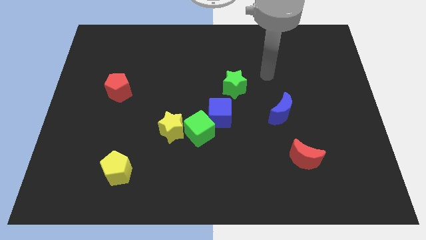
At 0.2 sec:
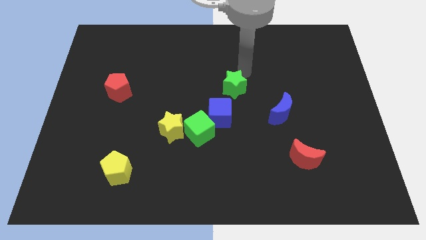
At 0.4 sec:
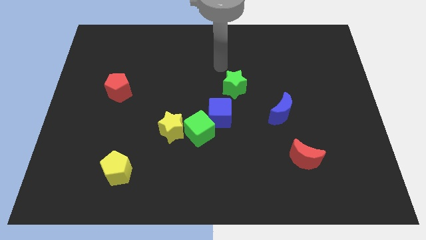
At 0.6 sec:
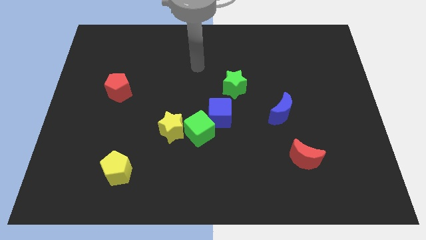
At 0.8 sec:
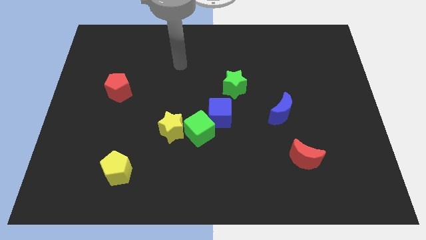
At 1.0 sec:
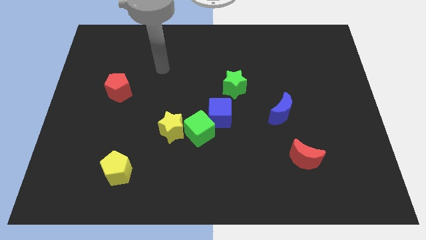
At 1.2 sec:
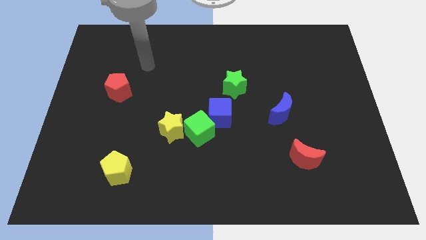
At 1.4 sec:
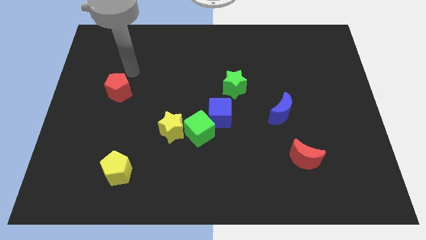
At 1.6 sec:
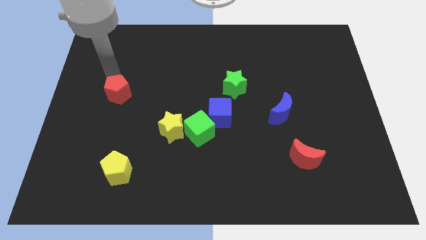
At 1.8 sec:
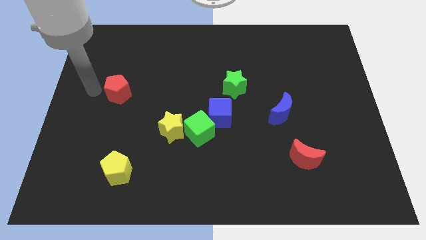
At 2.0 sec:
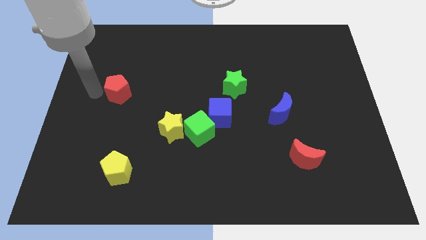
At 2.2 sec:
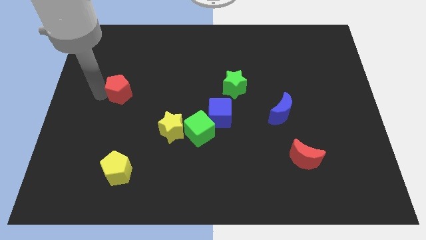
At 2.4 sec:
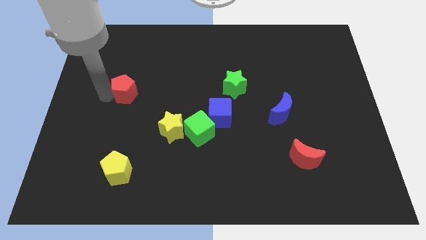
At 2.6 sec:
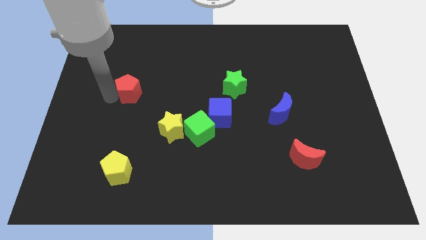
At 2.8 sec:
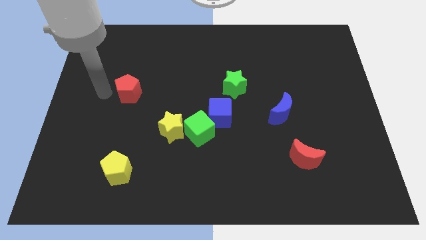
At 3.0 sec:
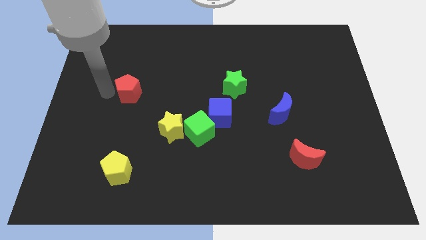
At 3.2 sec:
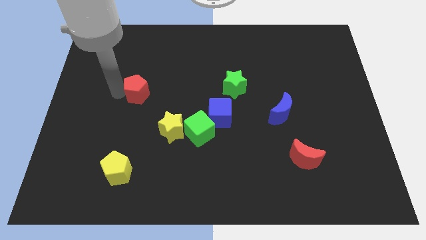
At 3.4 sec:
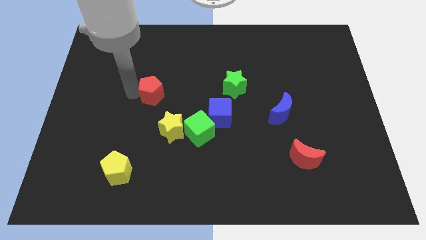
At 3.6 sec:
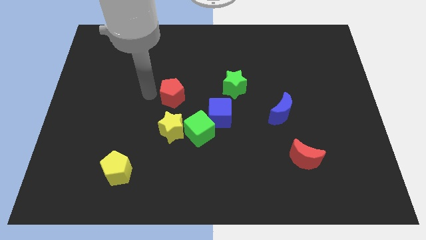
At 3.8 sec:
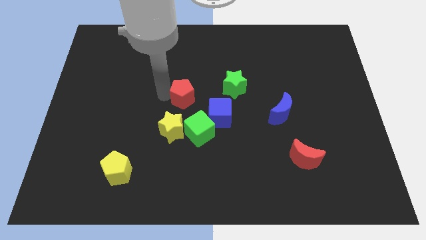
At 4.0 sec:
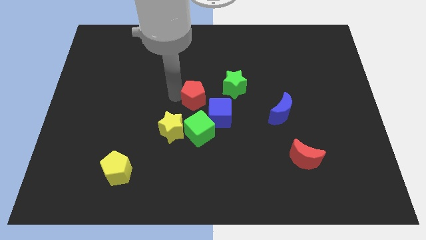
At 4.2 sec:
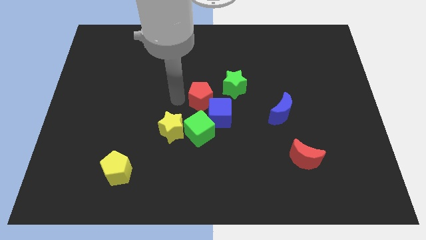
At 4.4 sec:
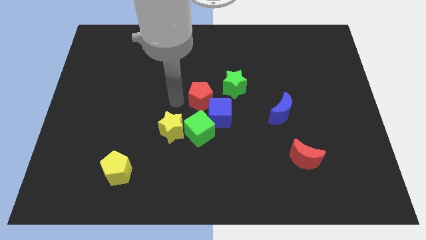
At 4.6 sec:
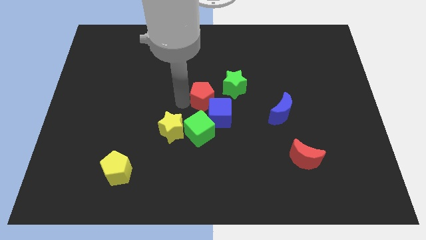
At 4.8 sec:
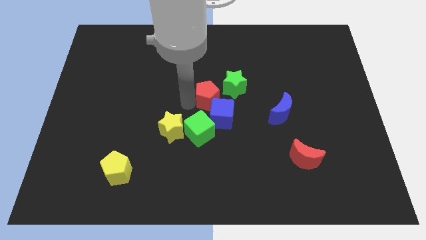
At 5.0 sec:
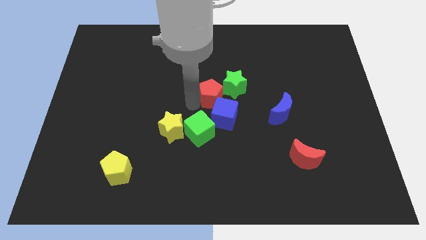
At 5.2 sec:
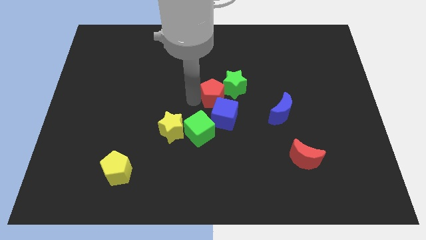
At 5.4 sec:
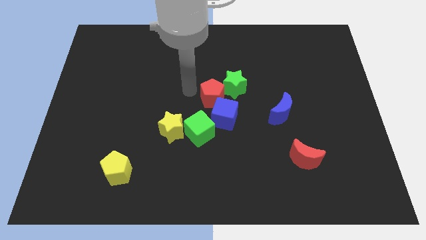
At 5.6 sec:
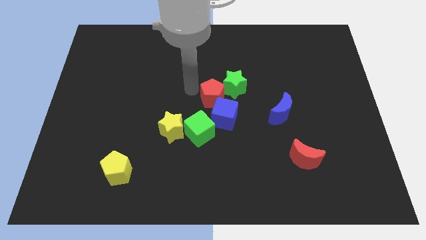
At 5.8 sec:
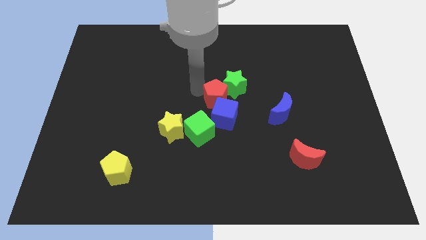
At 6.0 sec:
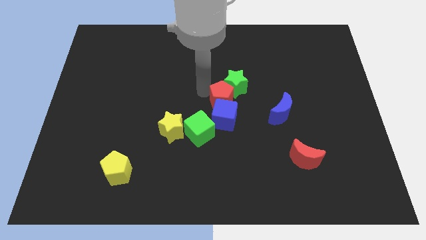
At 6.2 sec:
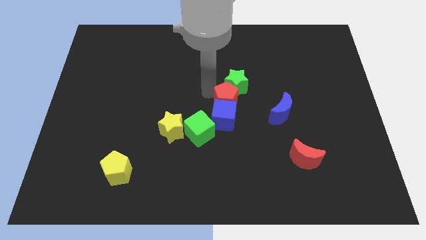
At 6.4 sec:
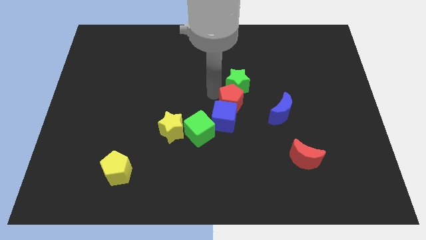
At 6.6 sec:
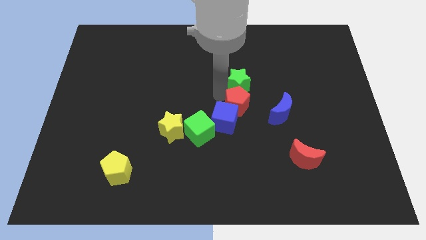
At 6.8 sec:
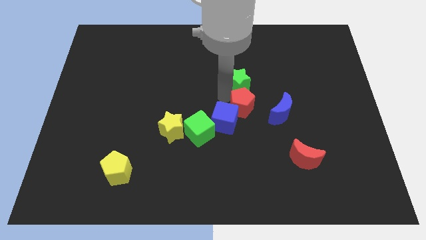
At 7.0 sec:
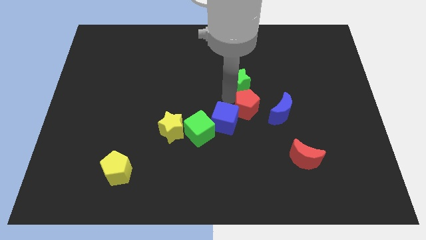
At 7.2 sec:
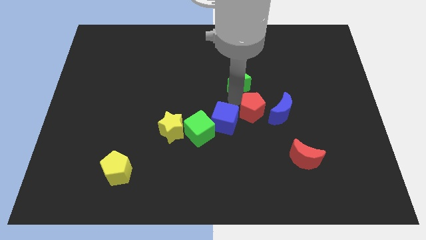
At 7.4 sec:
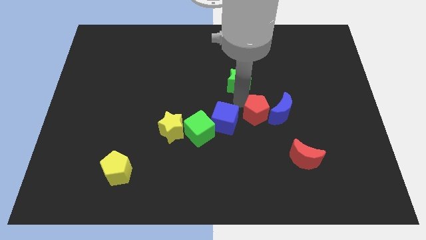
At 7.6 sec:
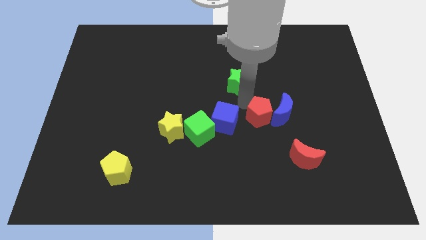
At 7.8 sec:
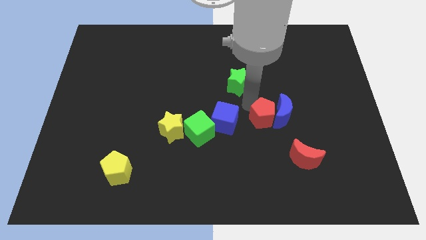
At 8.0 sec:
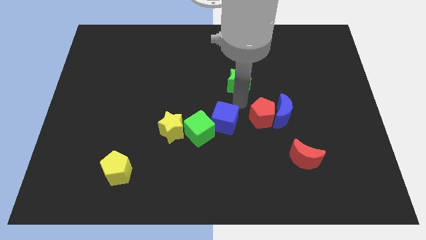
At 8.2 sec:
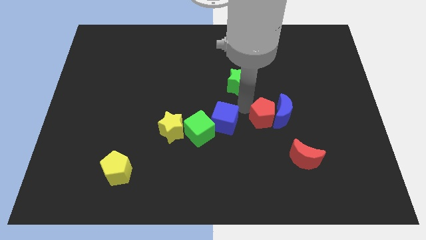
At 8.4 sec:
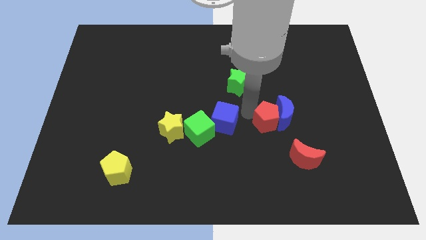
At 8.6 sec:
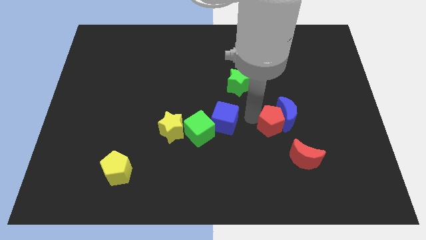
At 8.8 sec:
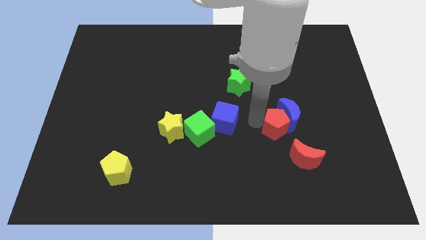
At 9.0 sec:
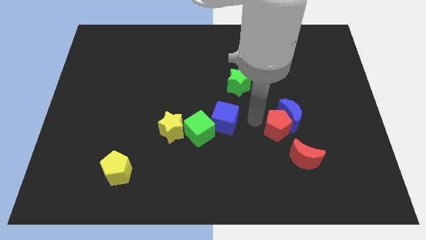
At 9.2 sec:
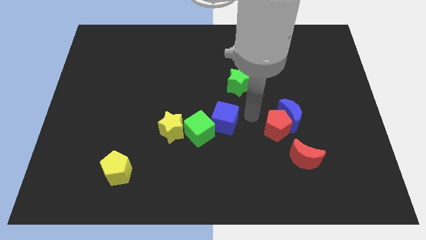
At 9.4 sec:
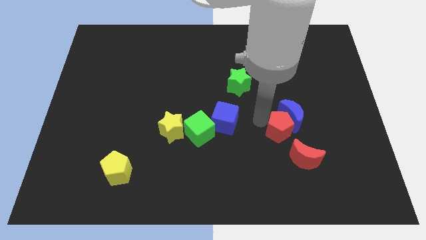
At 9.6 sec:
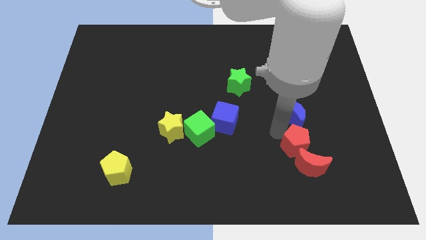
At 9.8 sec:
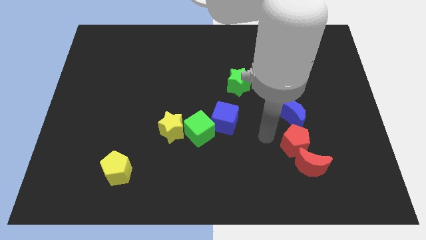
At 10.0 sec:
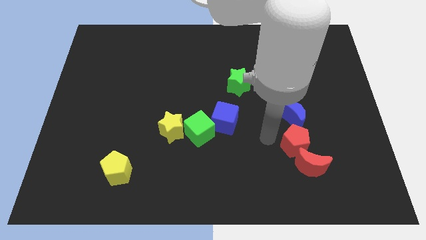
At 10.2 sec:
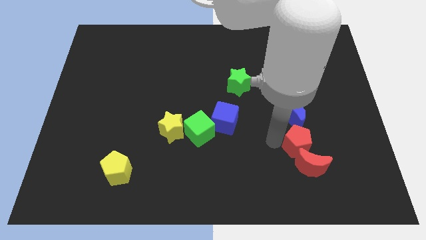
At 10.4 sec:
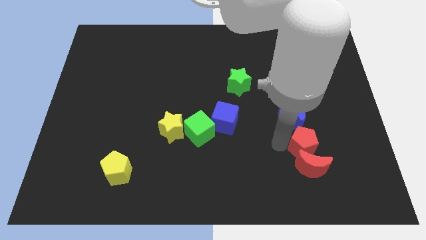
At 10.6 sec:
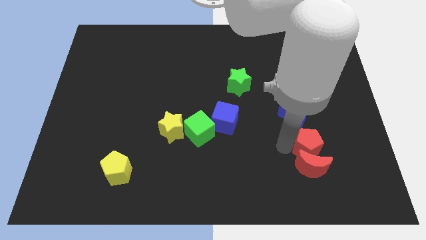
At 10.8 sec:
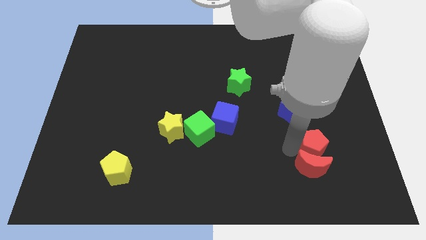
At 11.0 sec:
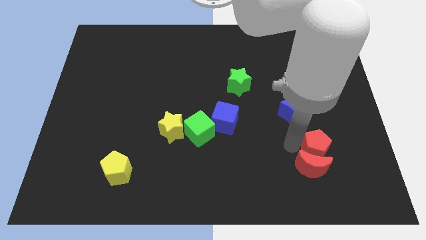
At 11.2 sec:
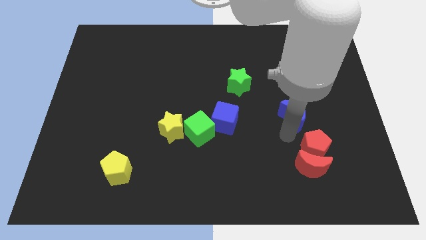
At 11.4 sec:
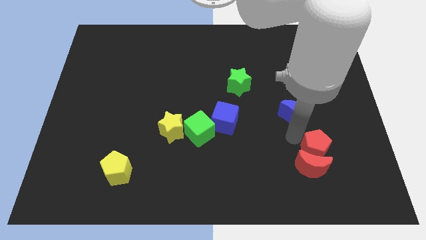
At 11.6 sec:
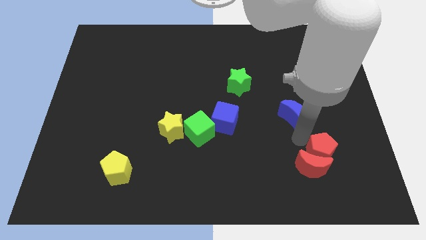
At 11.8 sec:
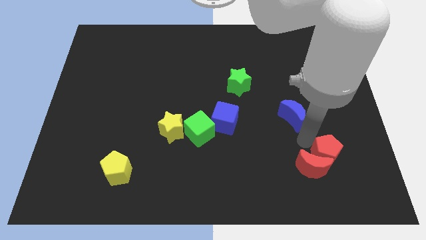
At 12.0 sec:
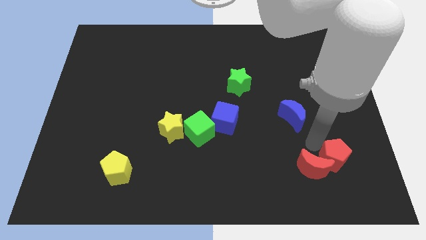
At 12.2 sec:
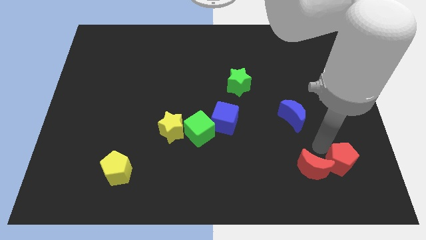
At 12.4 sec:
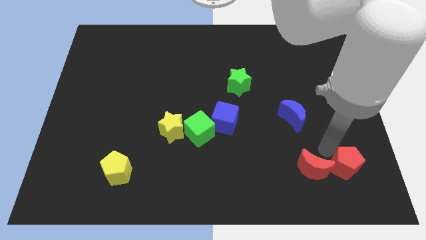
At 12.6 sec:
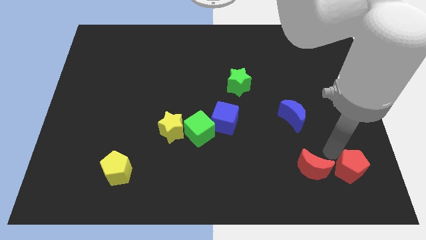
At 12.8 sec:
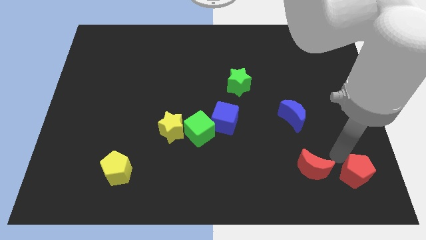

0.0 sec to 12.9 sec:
move the red pentagon to the bottom right corner

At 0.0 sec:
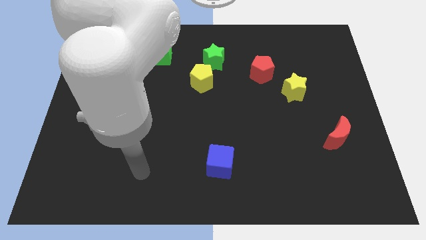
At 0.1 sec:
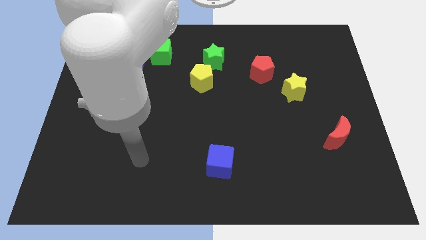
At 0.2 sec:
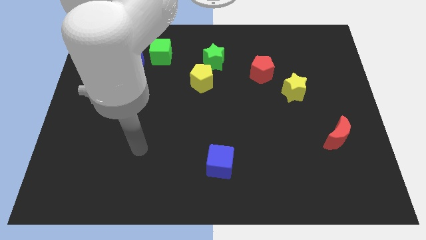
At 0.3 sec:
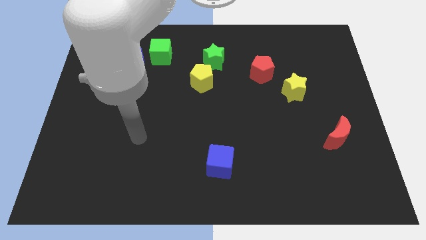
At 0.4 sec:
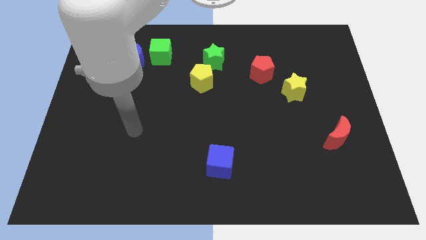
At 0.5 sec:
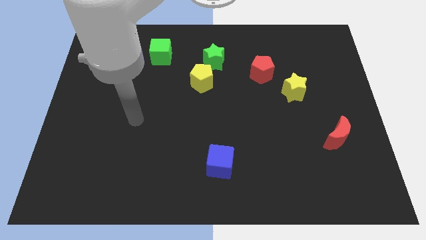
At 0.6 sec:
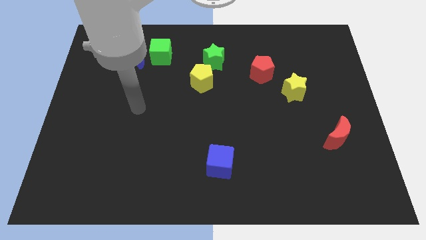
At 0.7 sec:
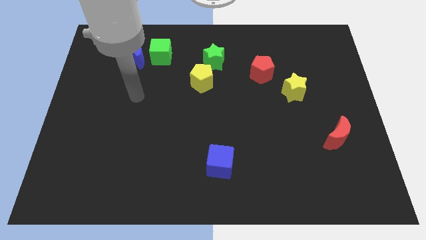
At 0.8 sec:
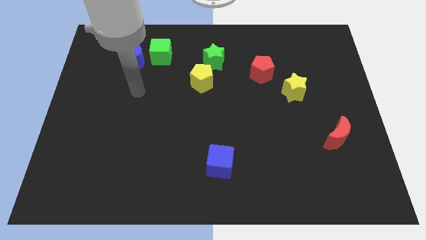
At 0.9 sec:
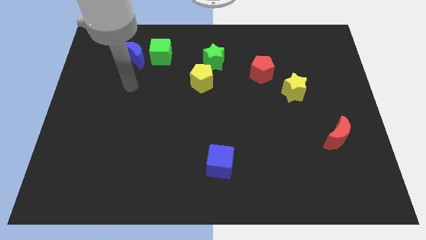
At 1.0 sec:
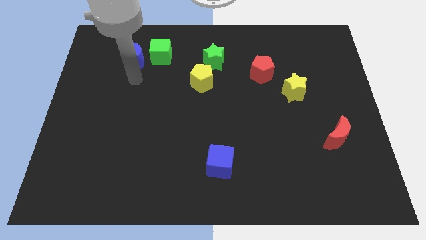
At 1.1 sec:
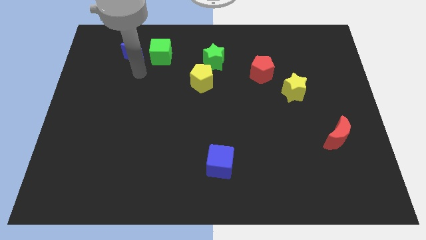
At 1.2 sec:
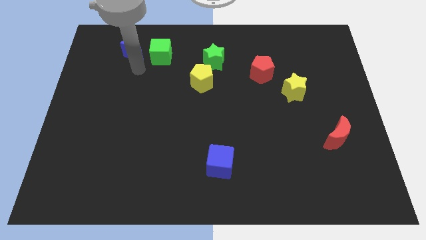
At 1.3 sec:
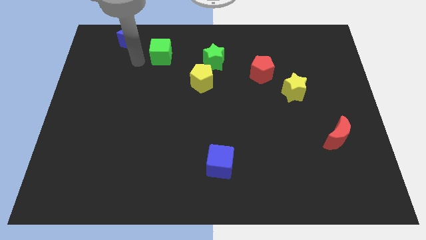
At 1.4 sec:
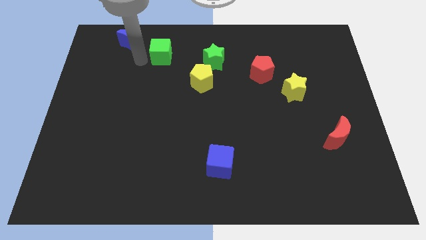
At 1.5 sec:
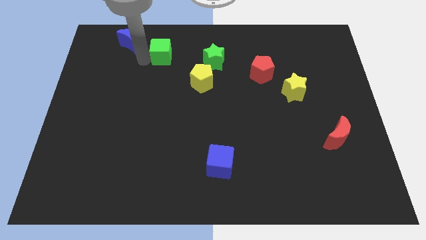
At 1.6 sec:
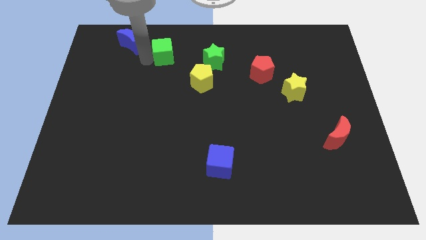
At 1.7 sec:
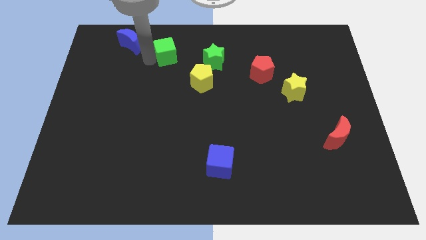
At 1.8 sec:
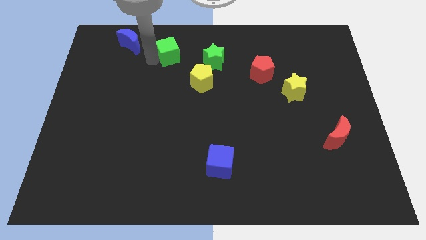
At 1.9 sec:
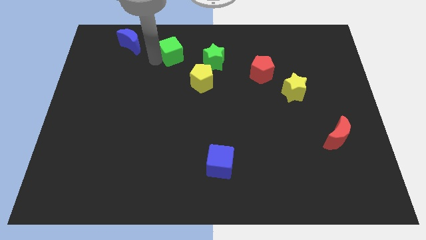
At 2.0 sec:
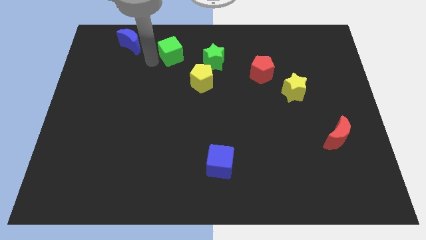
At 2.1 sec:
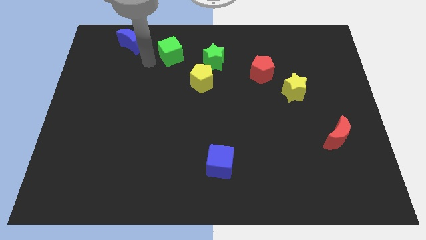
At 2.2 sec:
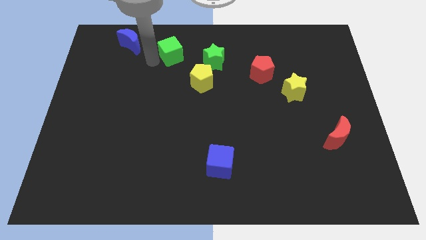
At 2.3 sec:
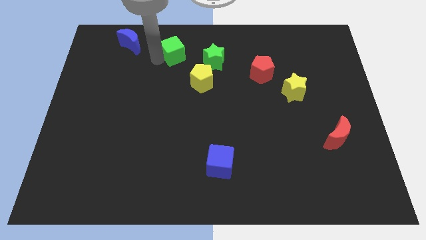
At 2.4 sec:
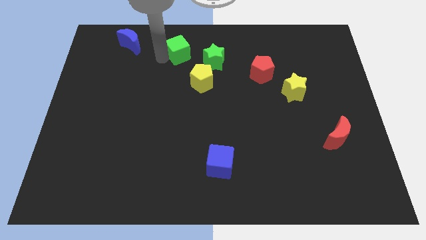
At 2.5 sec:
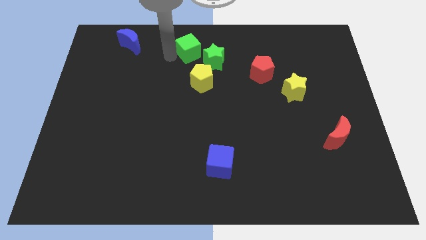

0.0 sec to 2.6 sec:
move the green cube to the top side
